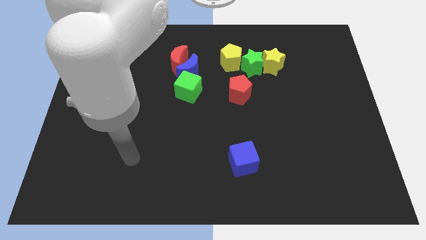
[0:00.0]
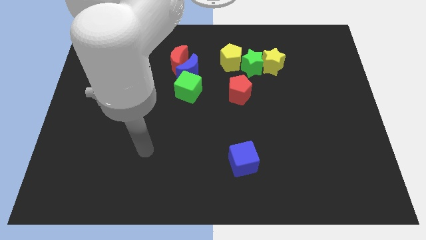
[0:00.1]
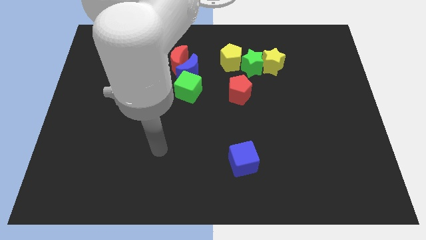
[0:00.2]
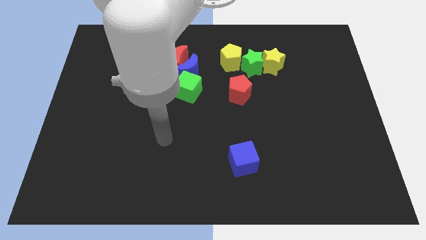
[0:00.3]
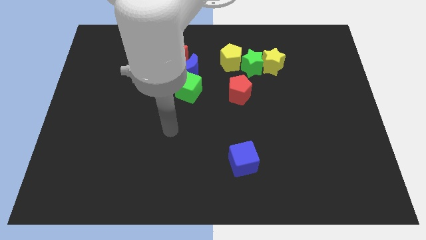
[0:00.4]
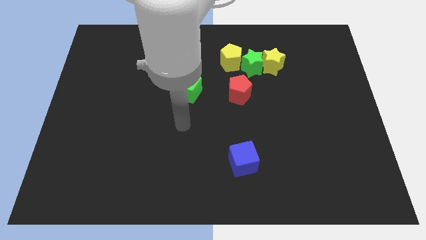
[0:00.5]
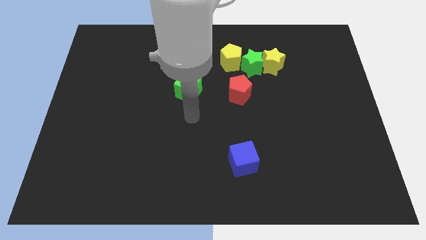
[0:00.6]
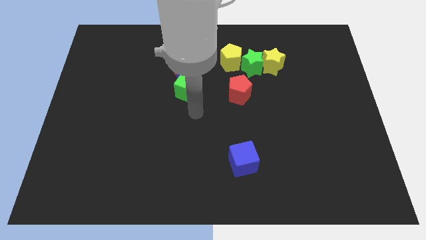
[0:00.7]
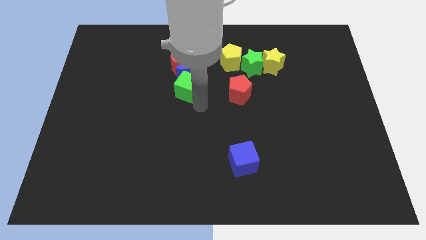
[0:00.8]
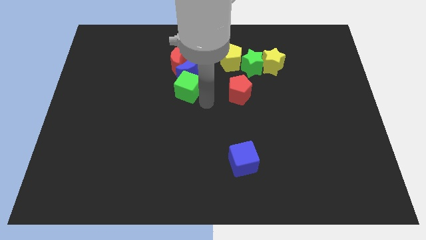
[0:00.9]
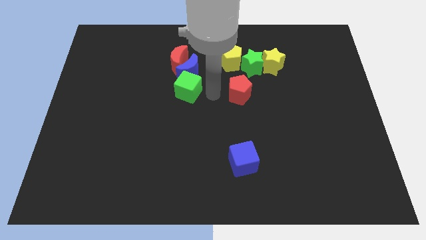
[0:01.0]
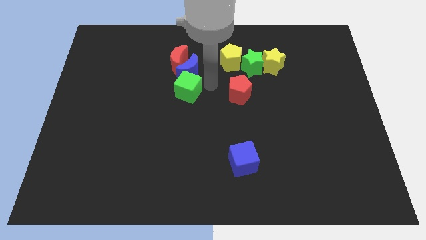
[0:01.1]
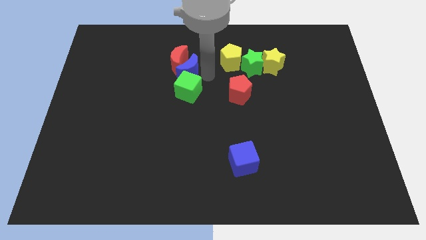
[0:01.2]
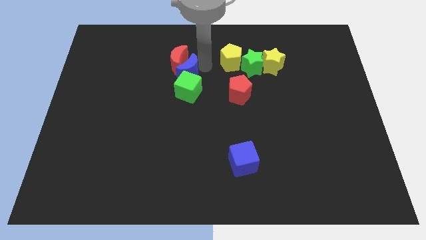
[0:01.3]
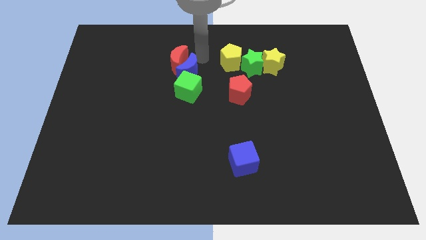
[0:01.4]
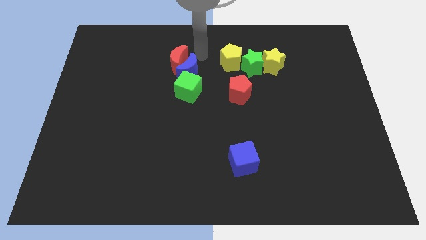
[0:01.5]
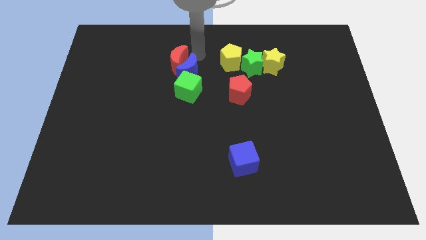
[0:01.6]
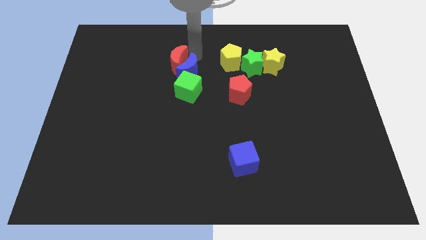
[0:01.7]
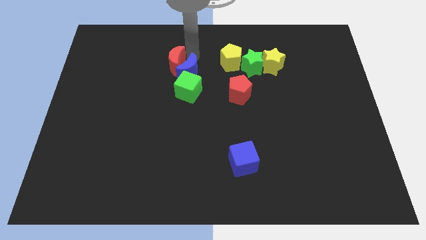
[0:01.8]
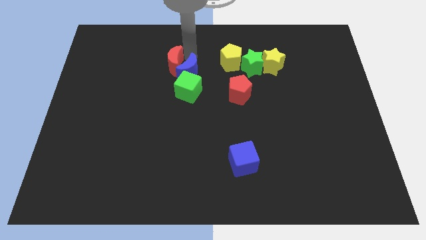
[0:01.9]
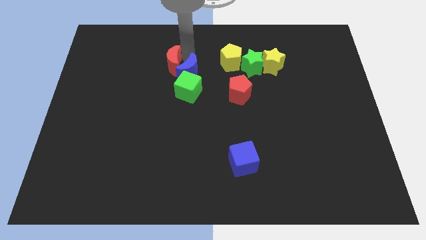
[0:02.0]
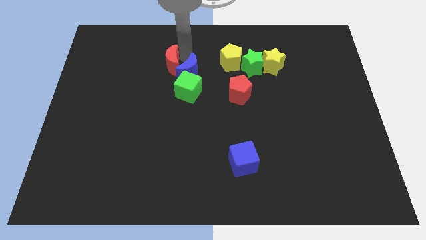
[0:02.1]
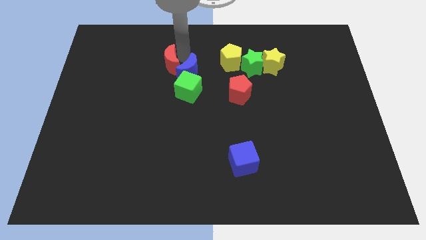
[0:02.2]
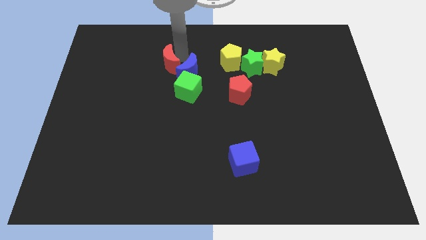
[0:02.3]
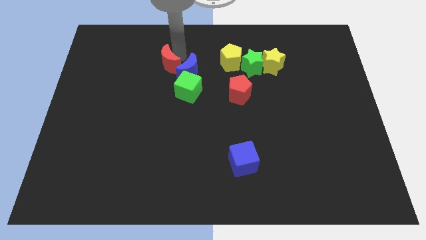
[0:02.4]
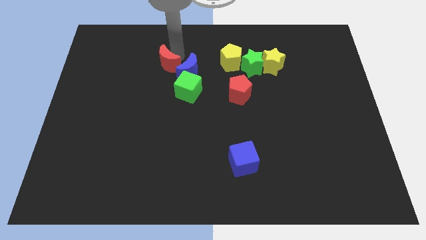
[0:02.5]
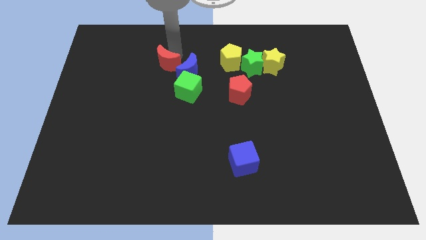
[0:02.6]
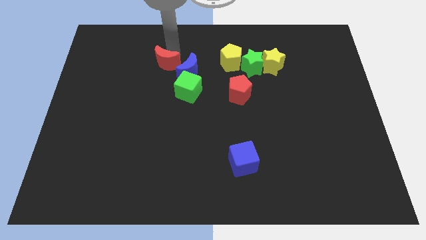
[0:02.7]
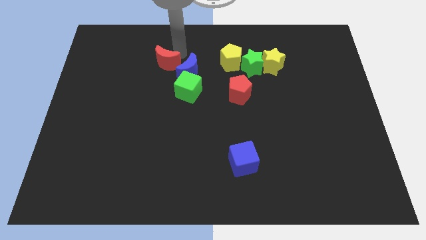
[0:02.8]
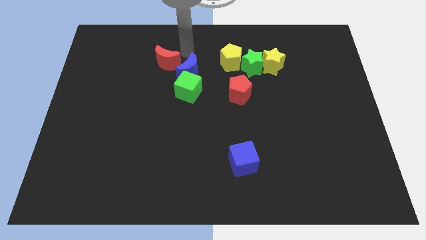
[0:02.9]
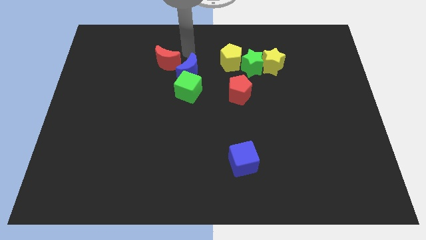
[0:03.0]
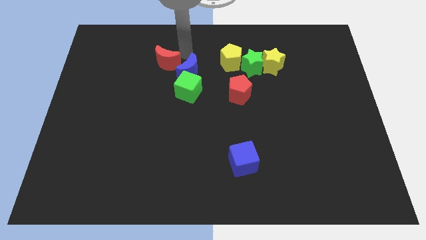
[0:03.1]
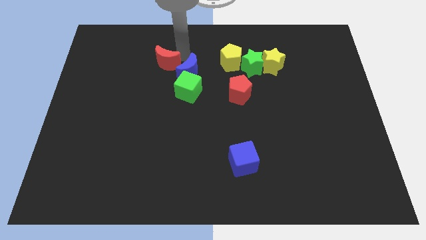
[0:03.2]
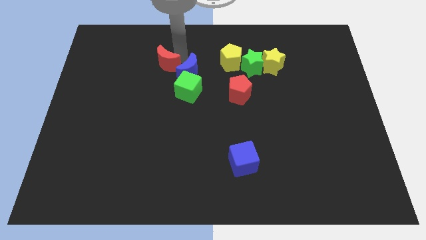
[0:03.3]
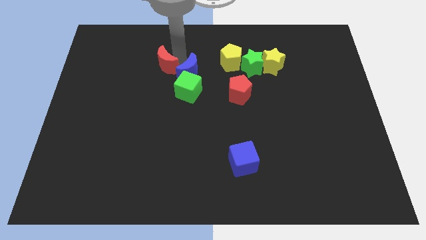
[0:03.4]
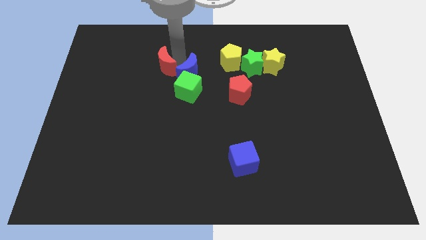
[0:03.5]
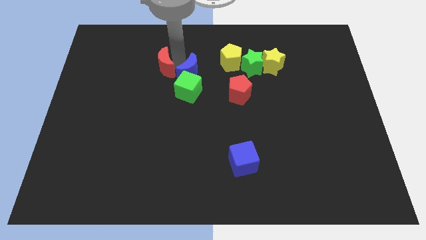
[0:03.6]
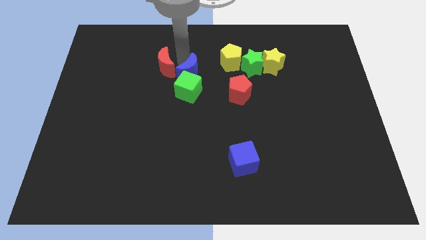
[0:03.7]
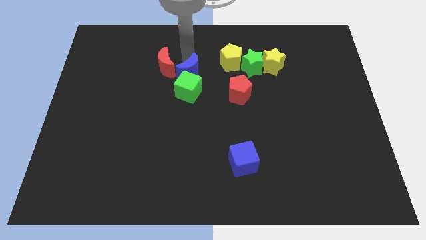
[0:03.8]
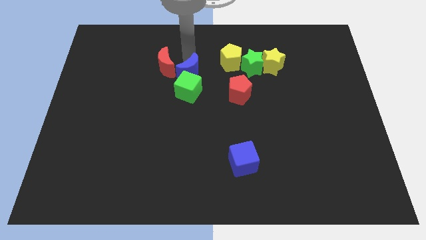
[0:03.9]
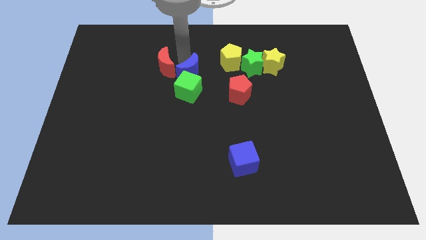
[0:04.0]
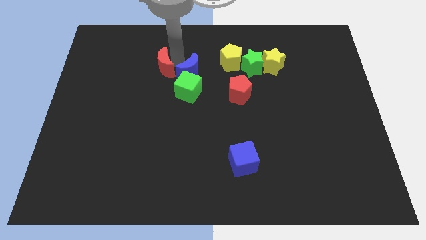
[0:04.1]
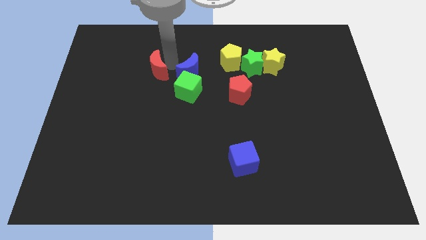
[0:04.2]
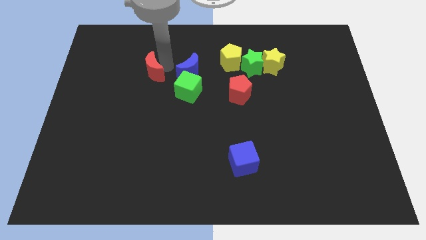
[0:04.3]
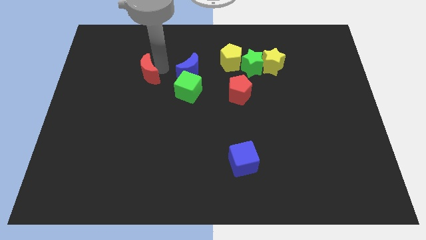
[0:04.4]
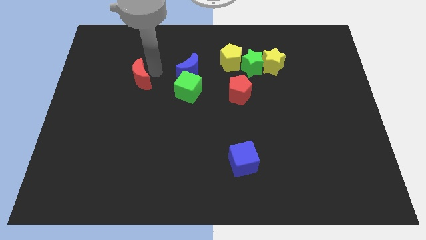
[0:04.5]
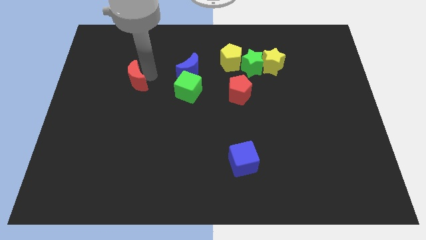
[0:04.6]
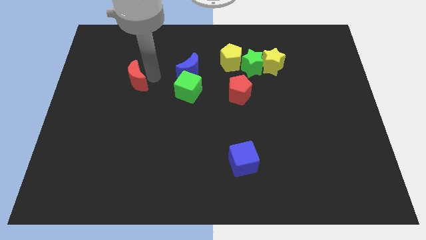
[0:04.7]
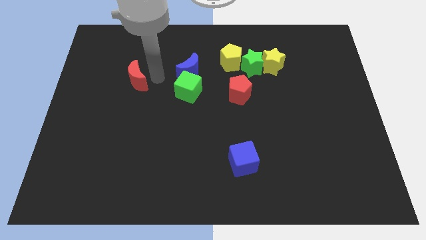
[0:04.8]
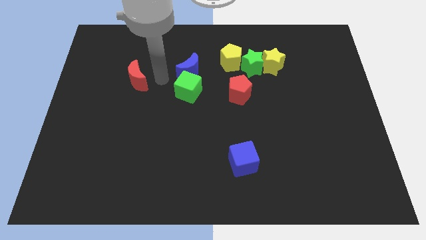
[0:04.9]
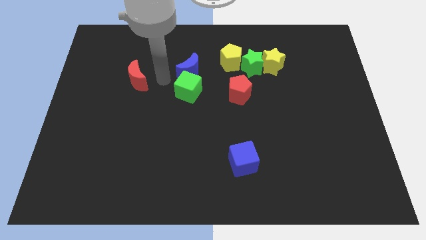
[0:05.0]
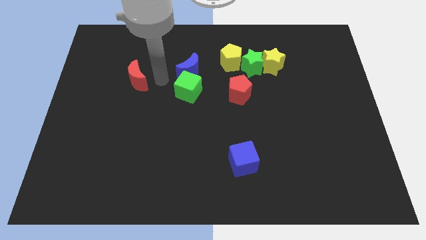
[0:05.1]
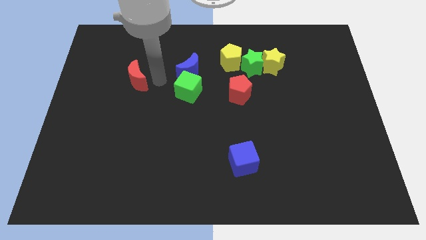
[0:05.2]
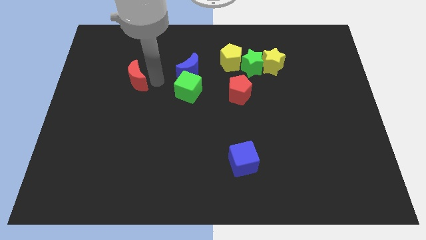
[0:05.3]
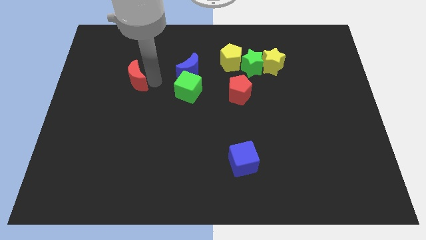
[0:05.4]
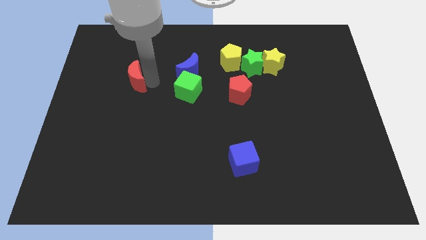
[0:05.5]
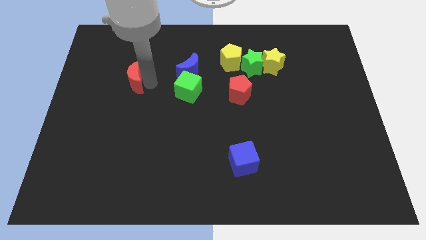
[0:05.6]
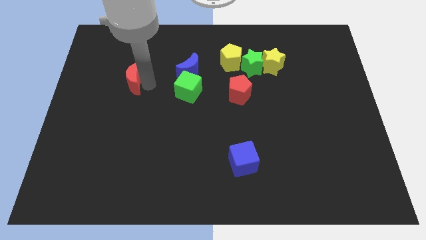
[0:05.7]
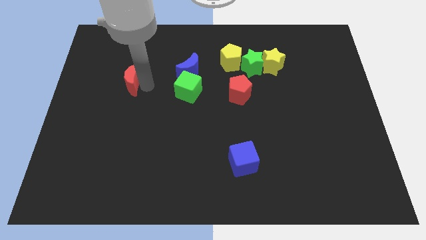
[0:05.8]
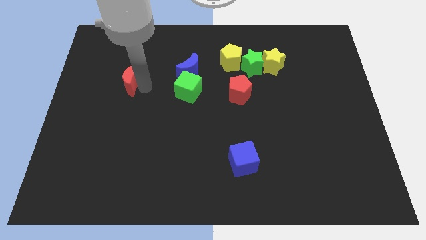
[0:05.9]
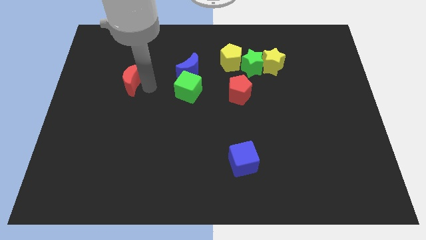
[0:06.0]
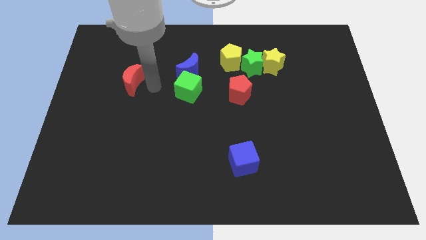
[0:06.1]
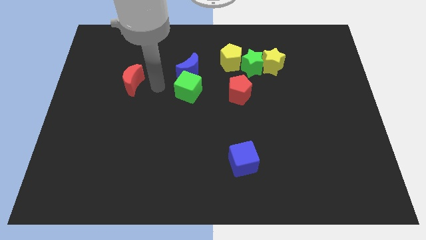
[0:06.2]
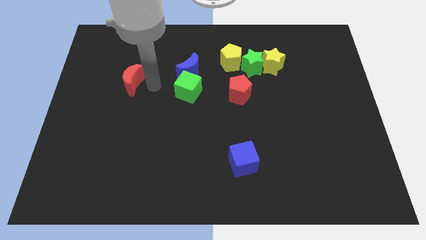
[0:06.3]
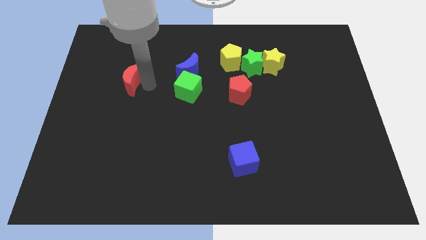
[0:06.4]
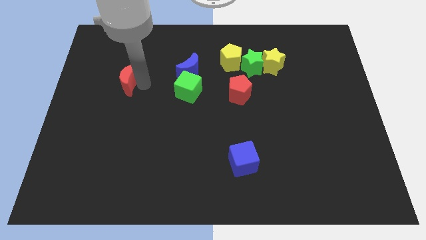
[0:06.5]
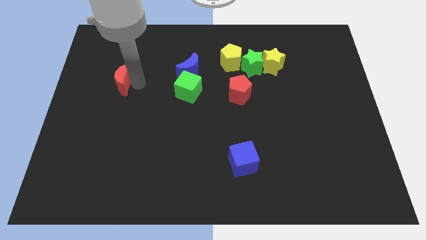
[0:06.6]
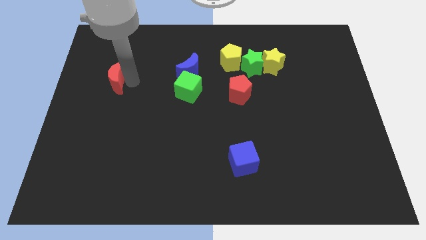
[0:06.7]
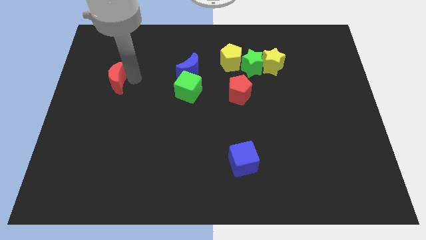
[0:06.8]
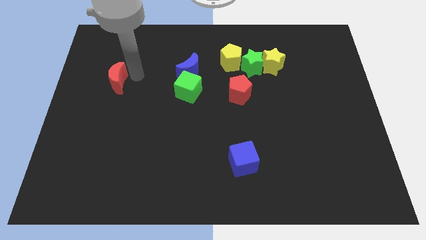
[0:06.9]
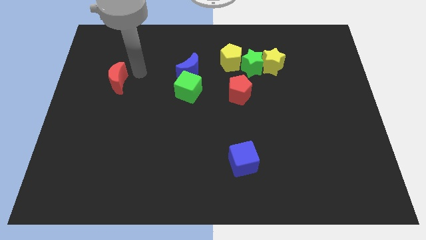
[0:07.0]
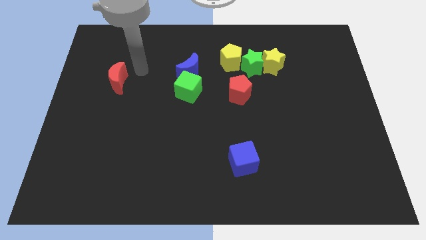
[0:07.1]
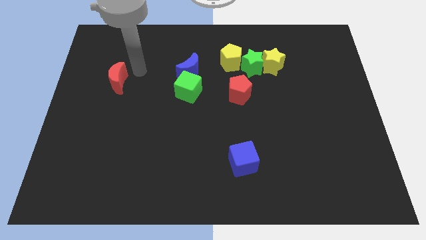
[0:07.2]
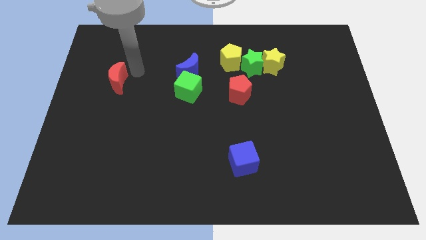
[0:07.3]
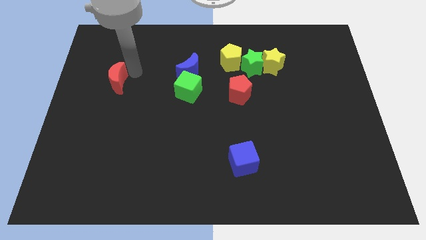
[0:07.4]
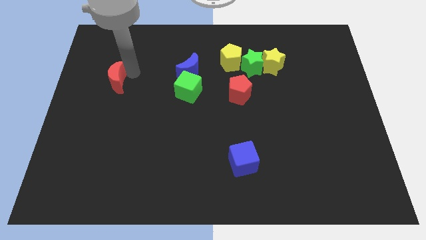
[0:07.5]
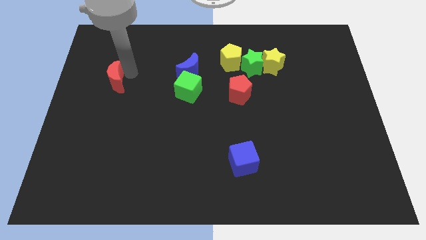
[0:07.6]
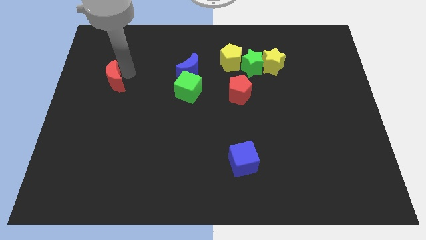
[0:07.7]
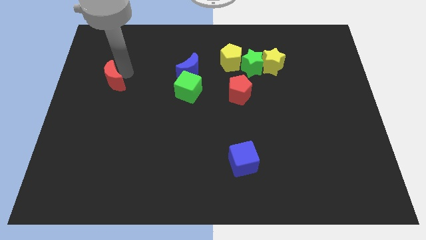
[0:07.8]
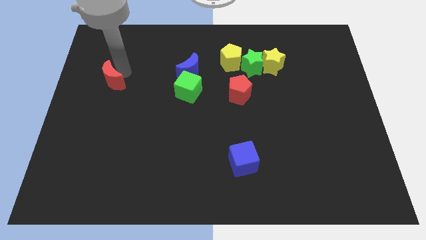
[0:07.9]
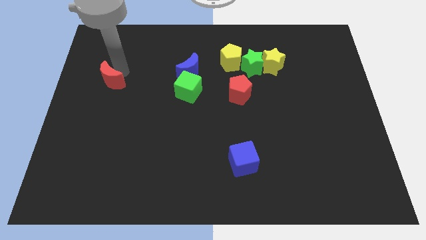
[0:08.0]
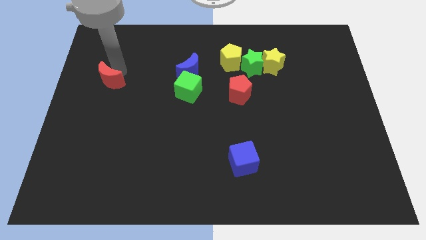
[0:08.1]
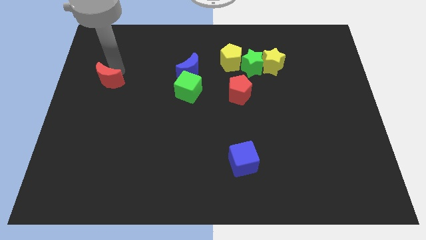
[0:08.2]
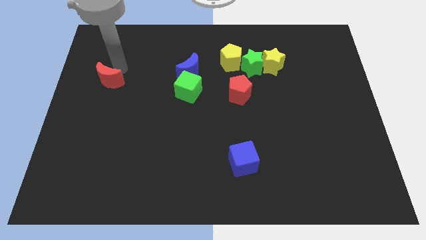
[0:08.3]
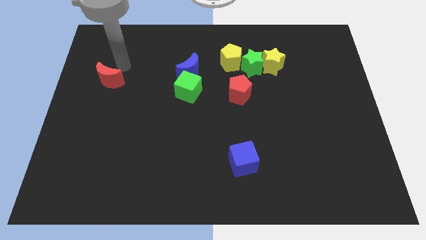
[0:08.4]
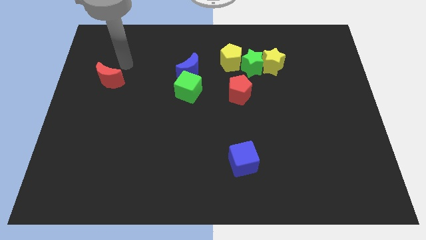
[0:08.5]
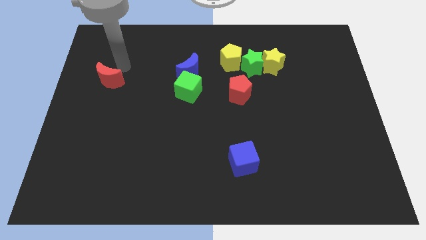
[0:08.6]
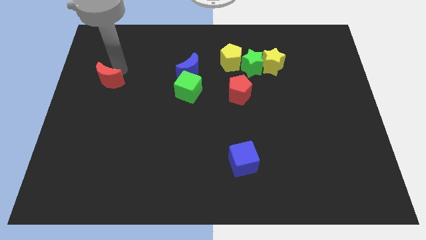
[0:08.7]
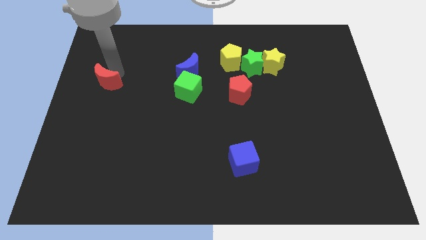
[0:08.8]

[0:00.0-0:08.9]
push the red moon to the left side of the board
